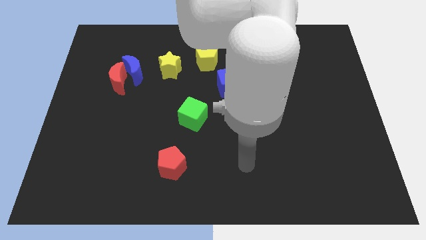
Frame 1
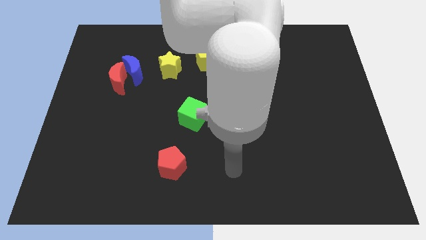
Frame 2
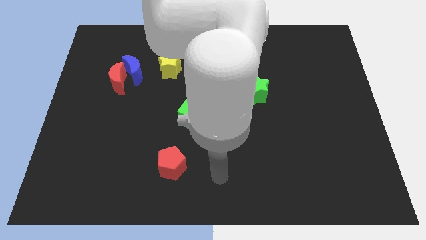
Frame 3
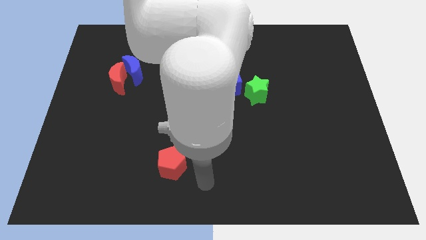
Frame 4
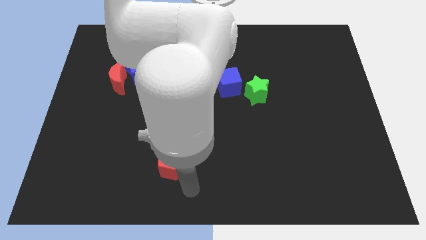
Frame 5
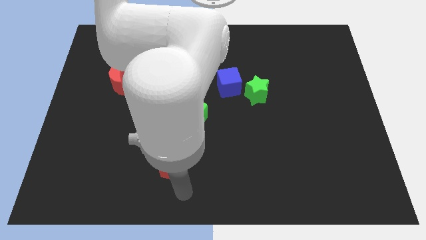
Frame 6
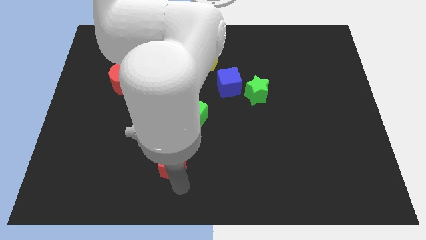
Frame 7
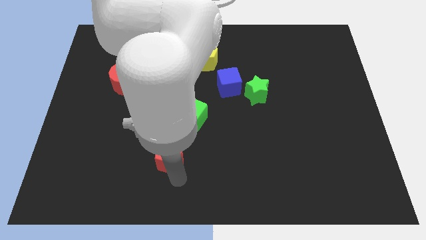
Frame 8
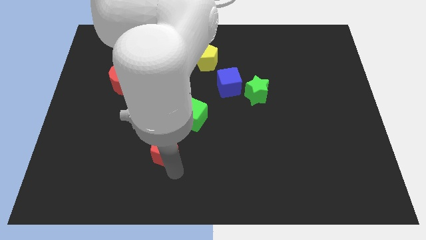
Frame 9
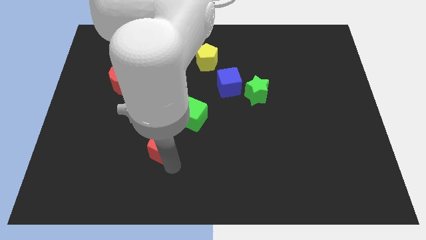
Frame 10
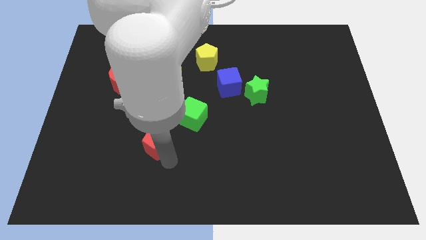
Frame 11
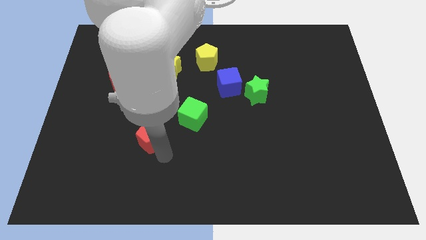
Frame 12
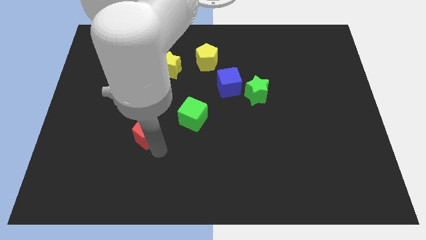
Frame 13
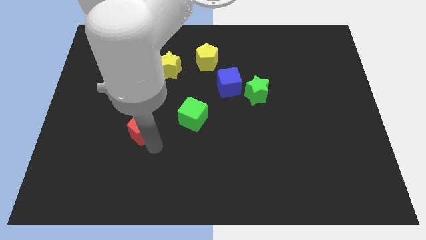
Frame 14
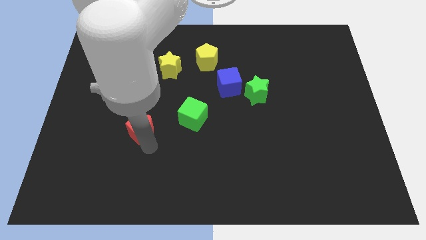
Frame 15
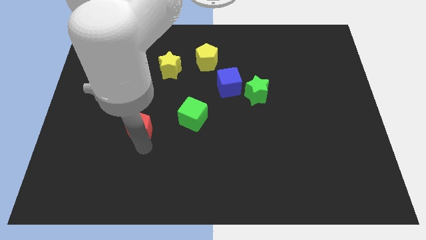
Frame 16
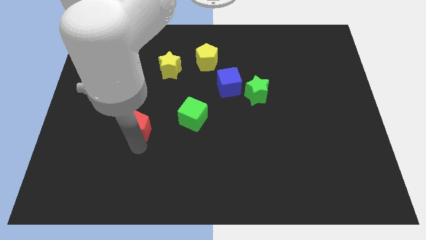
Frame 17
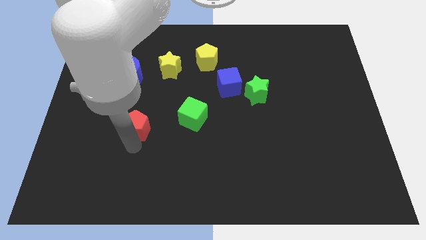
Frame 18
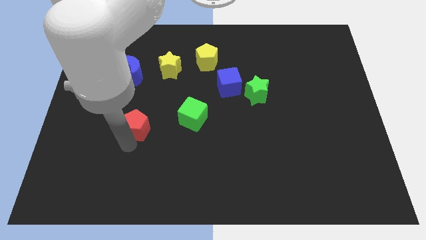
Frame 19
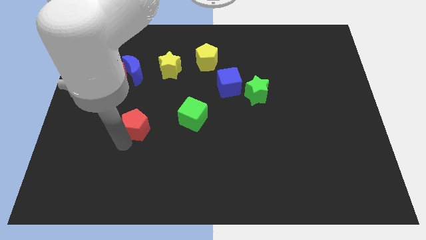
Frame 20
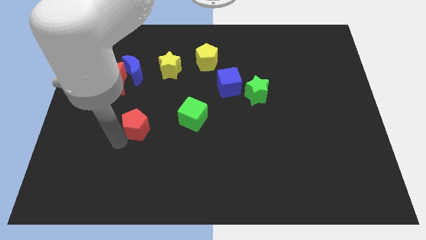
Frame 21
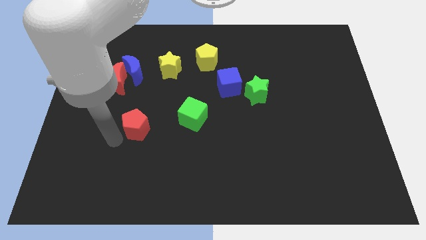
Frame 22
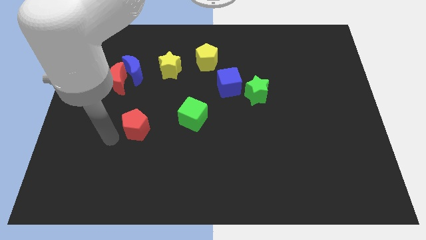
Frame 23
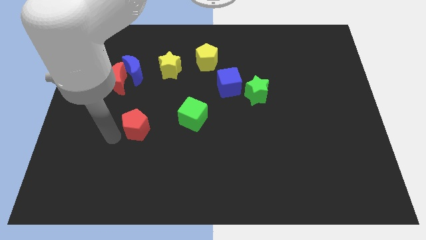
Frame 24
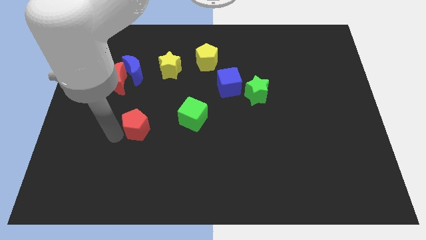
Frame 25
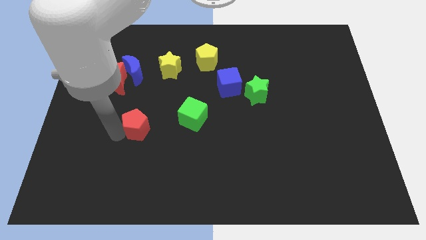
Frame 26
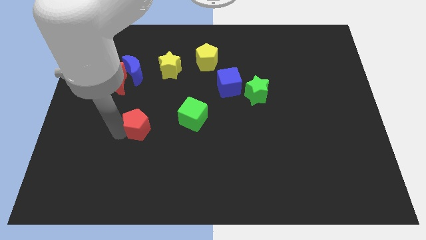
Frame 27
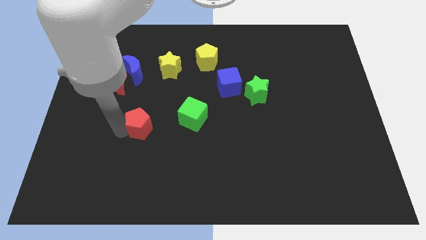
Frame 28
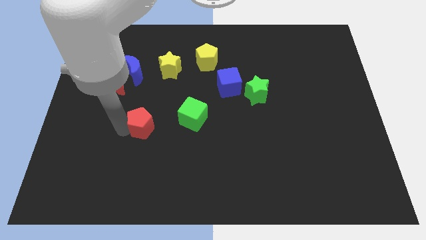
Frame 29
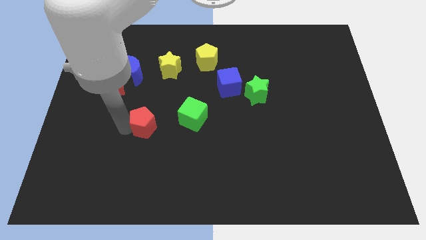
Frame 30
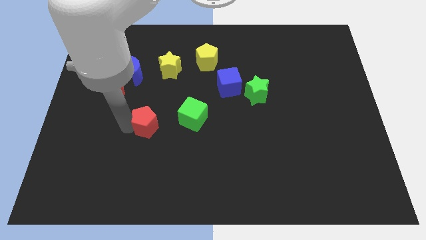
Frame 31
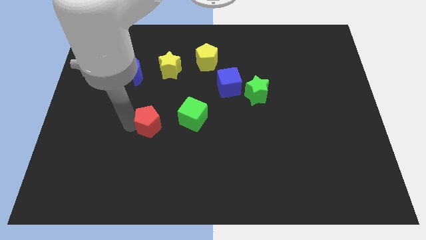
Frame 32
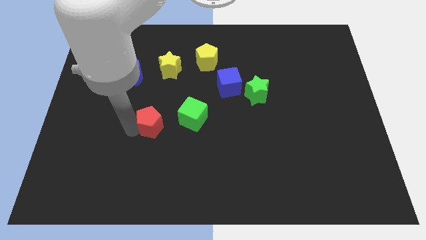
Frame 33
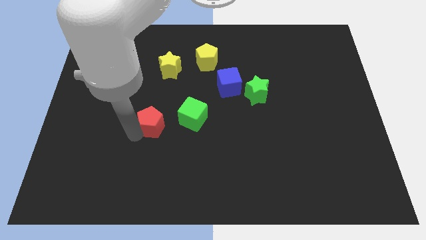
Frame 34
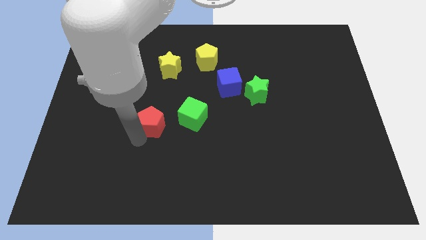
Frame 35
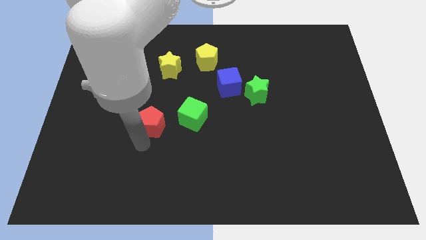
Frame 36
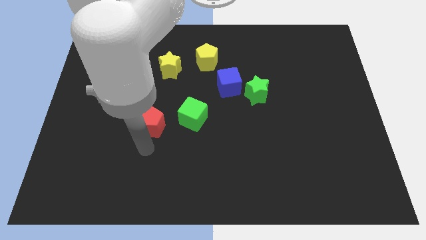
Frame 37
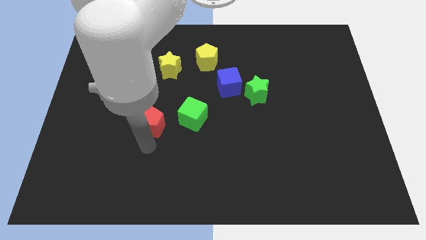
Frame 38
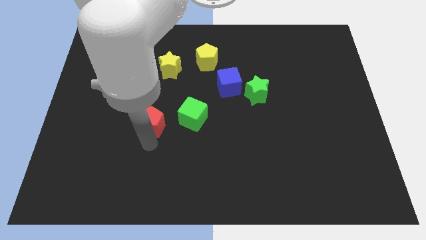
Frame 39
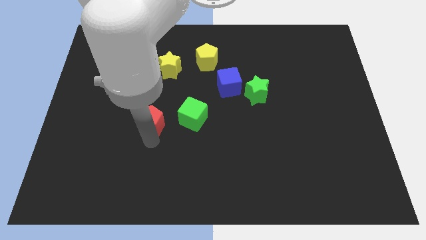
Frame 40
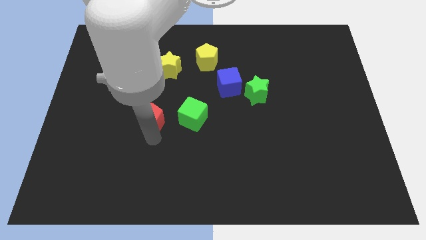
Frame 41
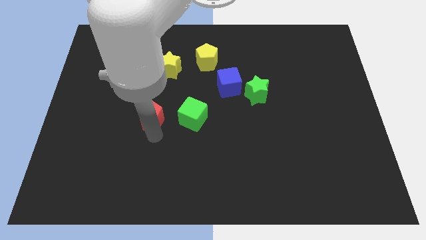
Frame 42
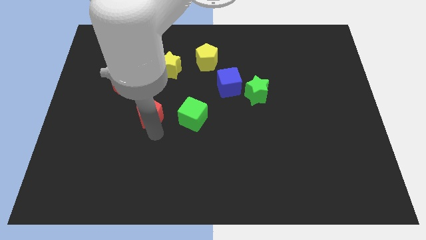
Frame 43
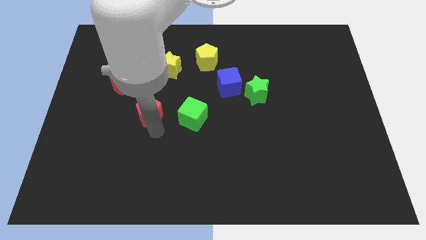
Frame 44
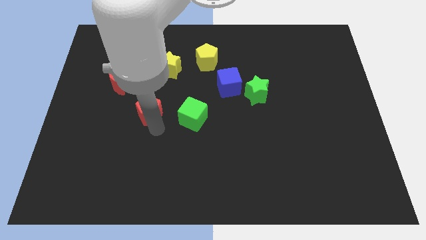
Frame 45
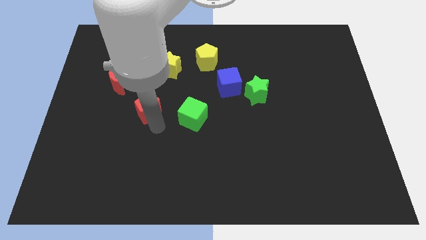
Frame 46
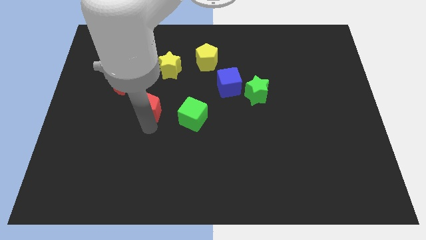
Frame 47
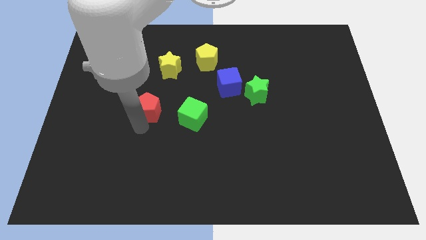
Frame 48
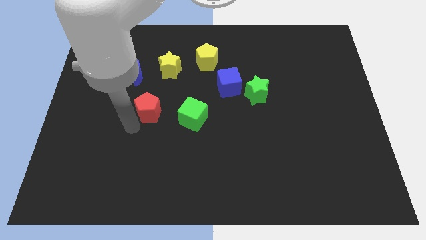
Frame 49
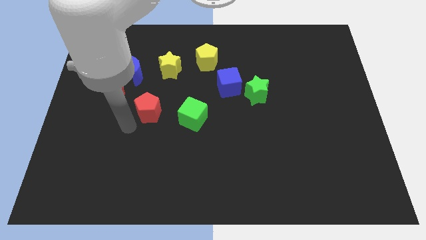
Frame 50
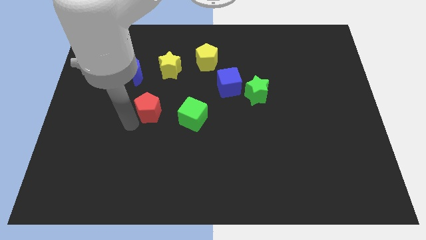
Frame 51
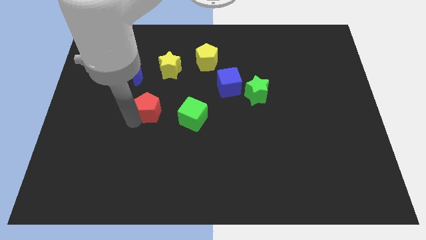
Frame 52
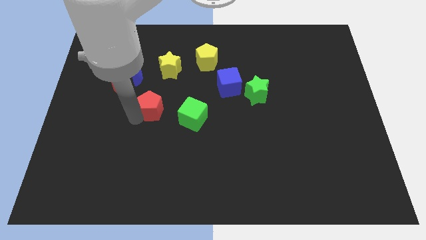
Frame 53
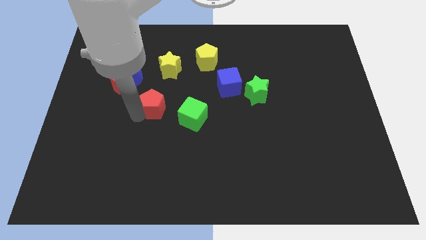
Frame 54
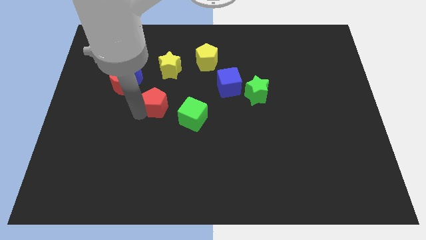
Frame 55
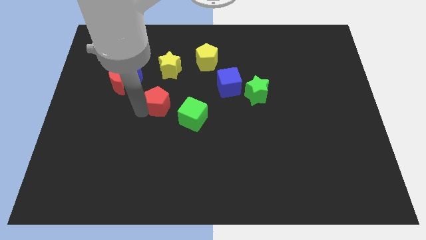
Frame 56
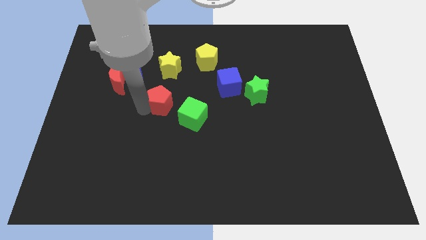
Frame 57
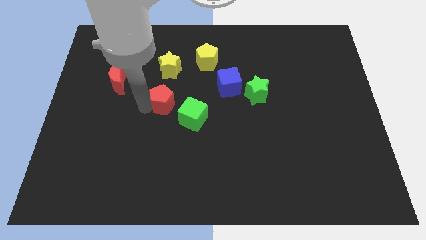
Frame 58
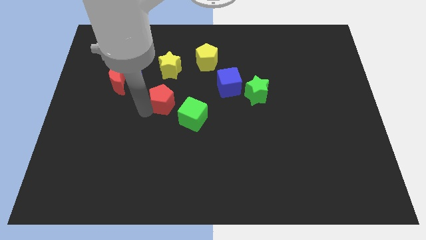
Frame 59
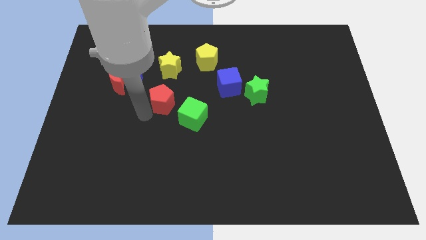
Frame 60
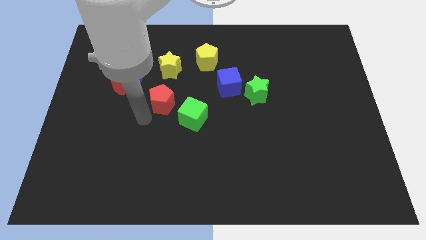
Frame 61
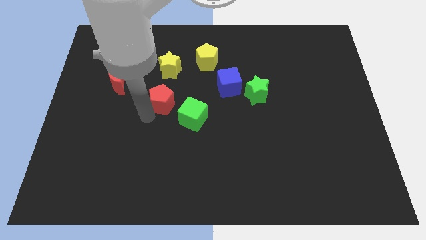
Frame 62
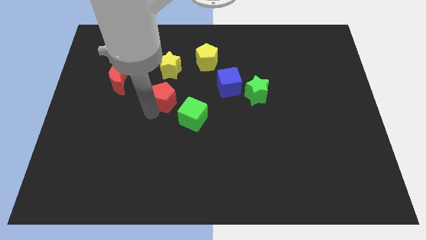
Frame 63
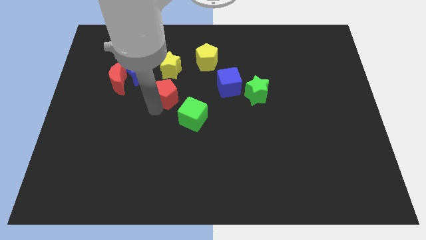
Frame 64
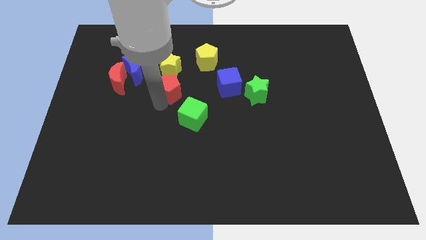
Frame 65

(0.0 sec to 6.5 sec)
push the red pentagon up

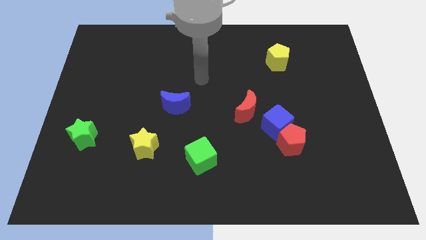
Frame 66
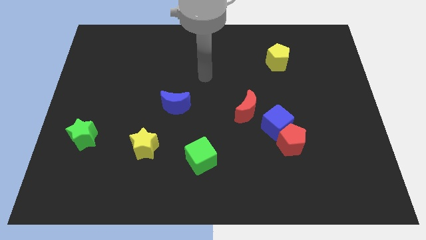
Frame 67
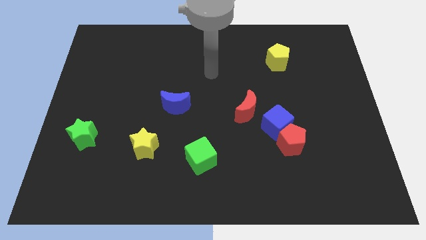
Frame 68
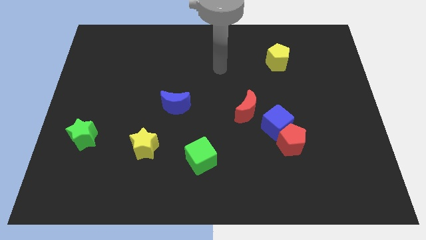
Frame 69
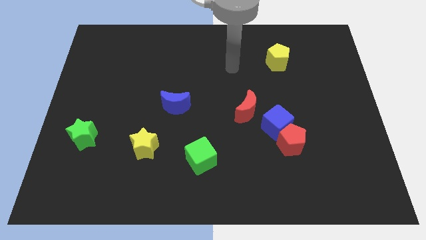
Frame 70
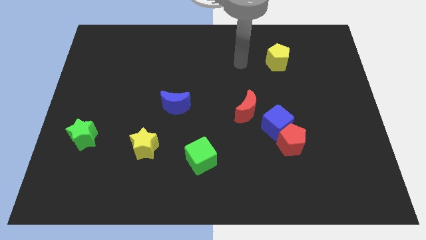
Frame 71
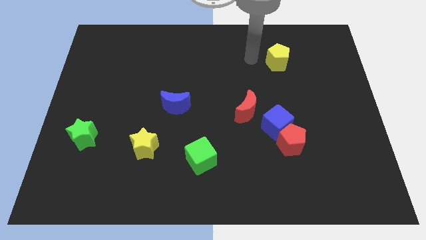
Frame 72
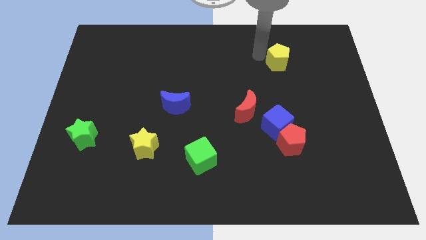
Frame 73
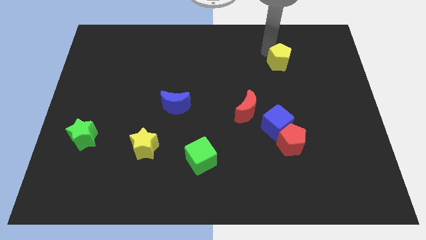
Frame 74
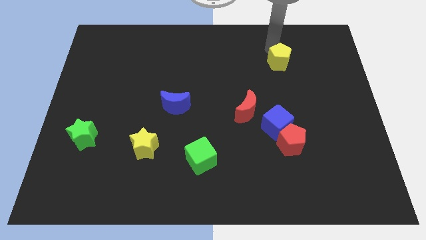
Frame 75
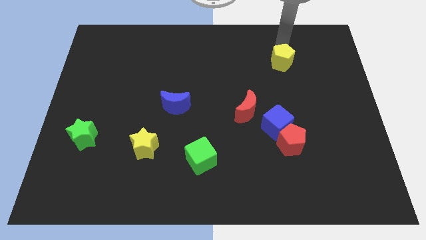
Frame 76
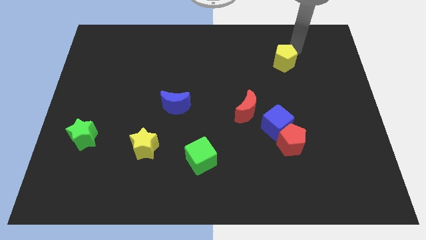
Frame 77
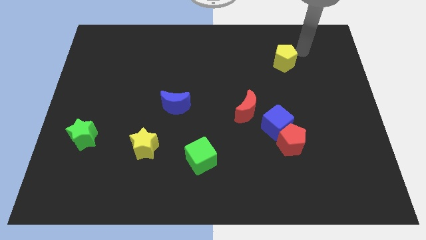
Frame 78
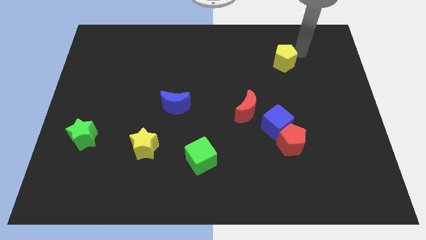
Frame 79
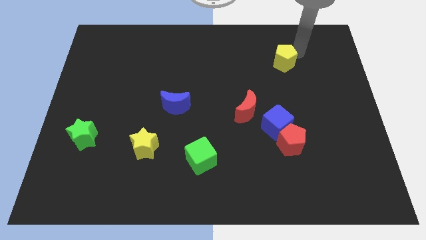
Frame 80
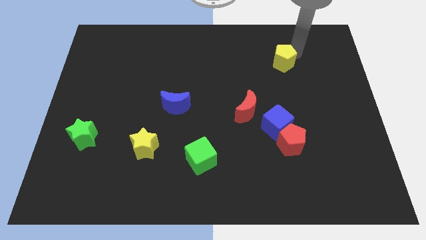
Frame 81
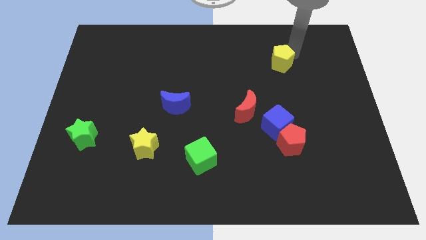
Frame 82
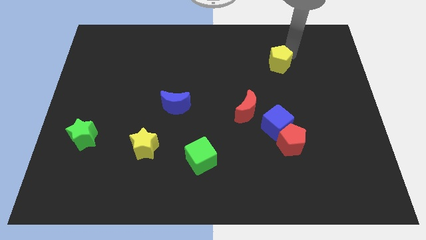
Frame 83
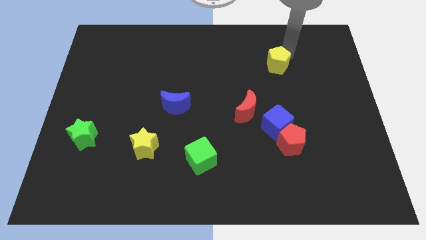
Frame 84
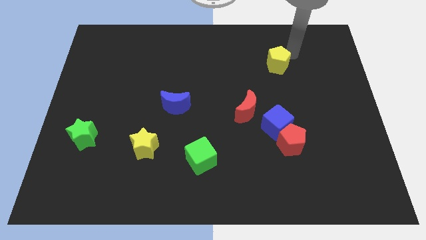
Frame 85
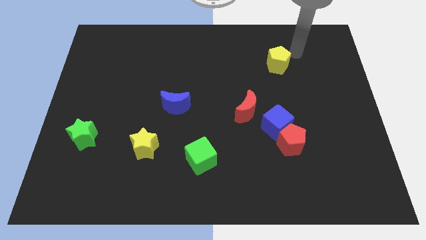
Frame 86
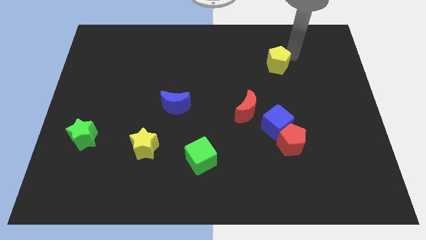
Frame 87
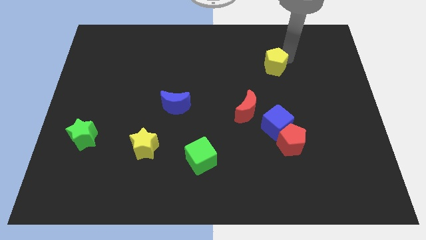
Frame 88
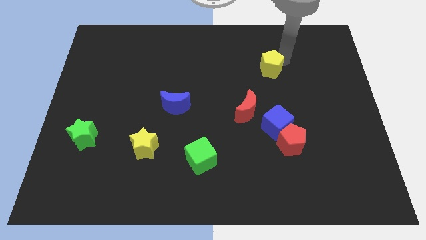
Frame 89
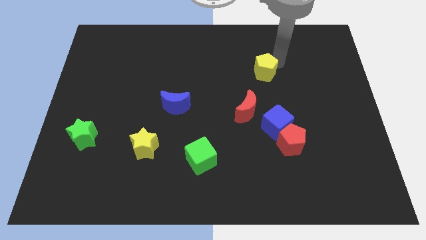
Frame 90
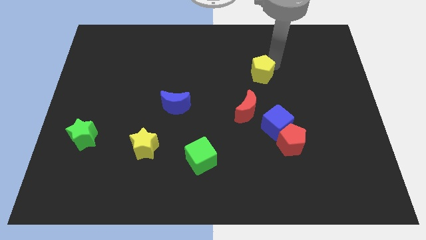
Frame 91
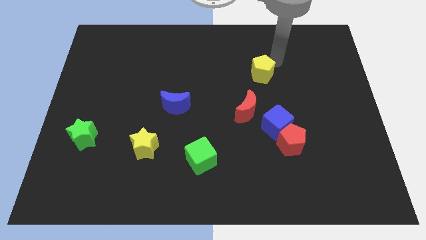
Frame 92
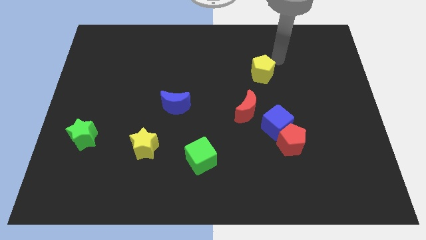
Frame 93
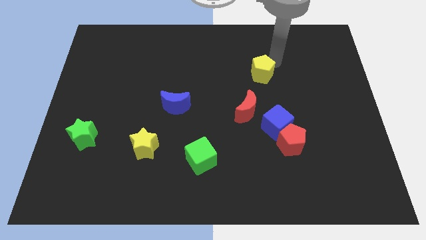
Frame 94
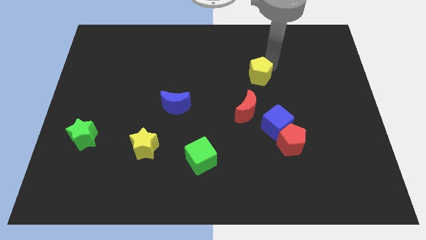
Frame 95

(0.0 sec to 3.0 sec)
slightly move the yellow pentagon downwards and left
